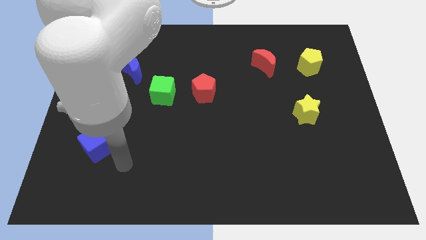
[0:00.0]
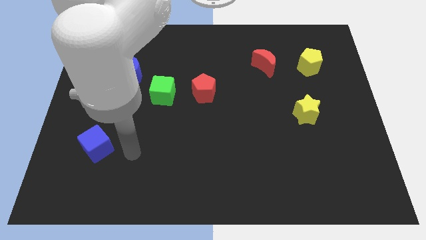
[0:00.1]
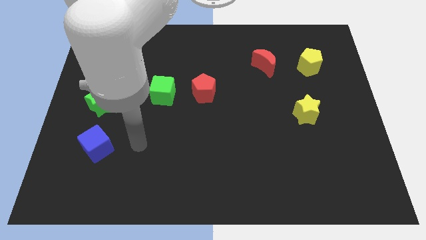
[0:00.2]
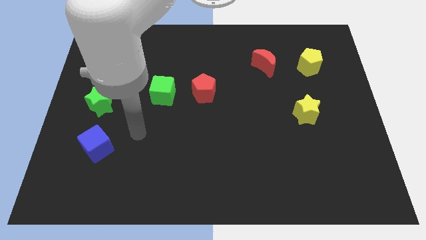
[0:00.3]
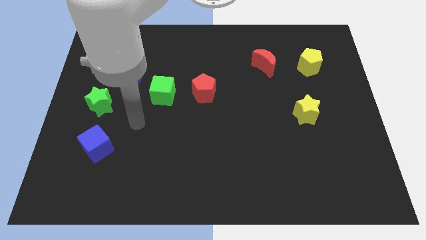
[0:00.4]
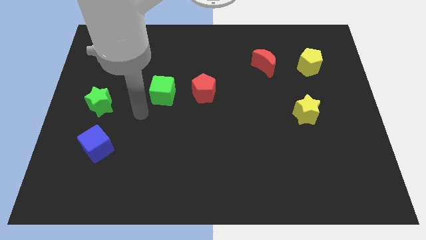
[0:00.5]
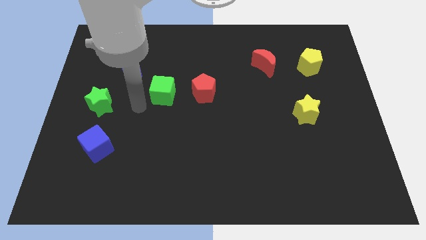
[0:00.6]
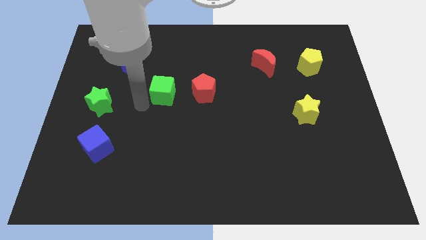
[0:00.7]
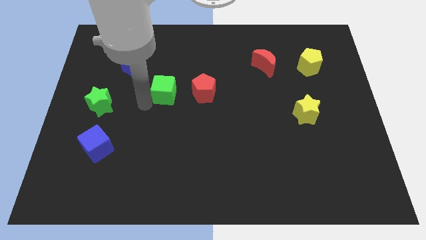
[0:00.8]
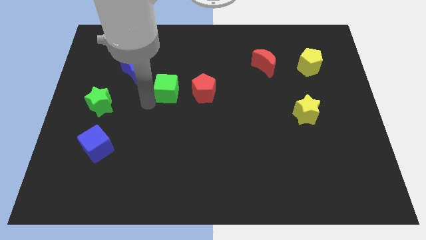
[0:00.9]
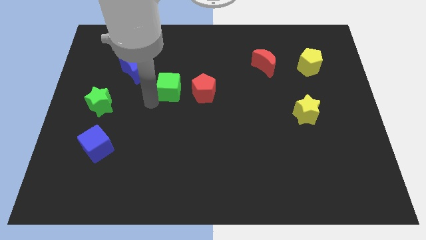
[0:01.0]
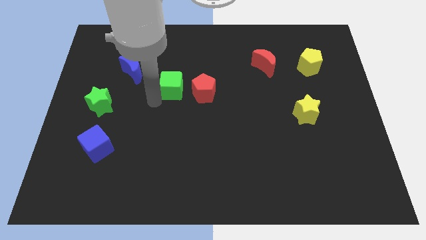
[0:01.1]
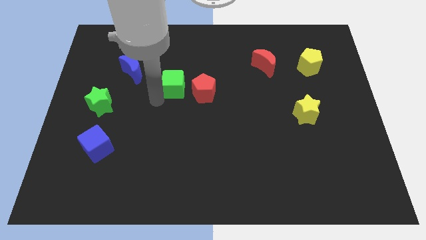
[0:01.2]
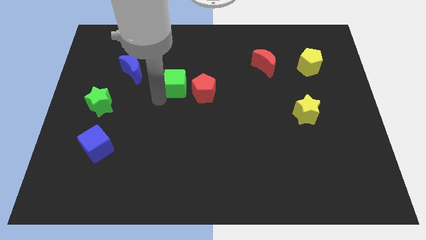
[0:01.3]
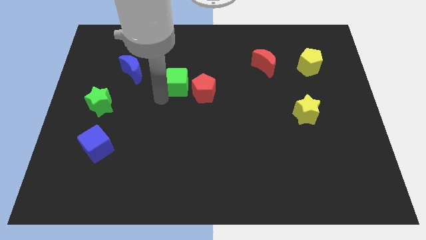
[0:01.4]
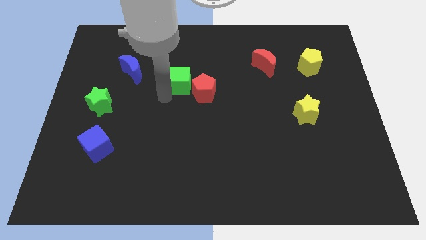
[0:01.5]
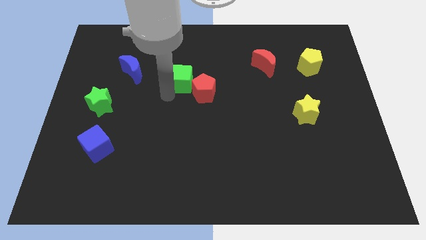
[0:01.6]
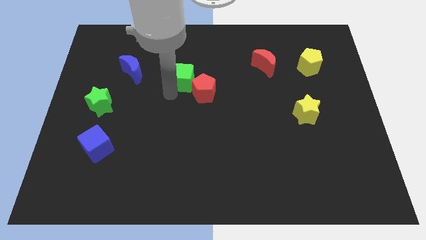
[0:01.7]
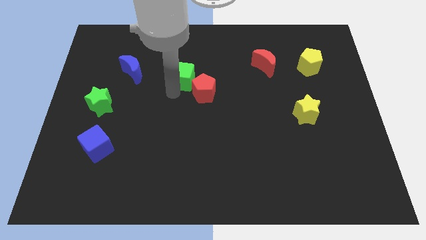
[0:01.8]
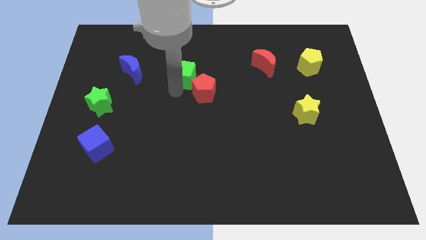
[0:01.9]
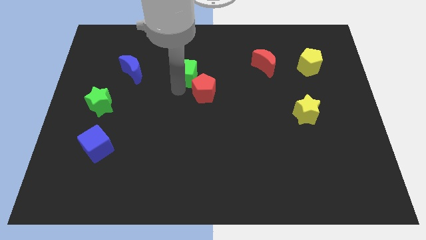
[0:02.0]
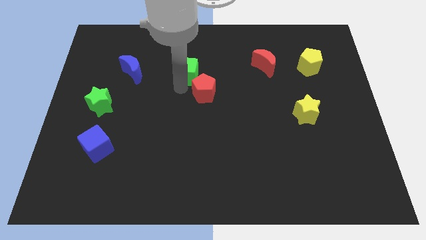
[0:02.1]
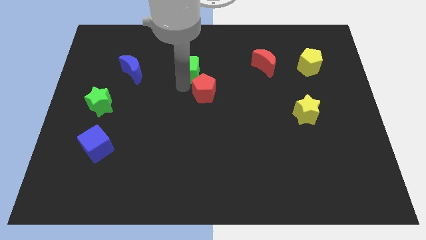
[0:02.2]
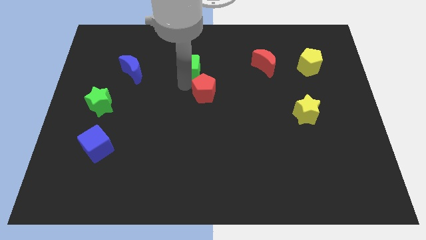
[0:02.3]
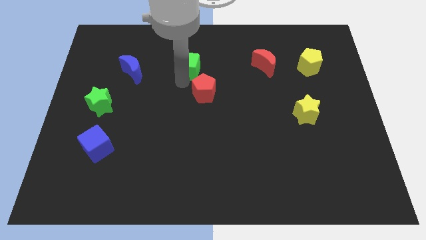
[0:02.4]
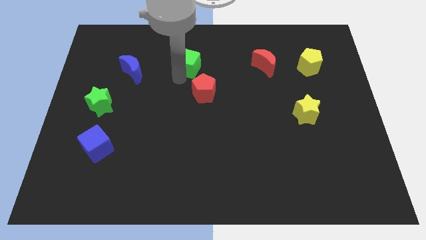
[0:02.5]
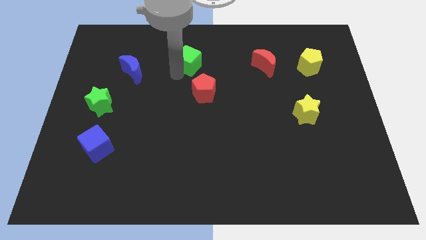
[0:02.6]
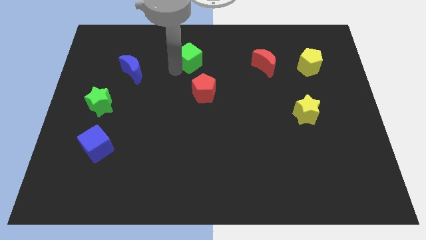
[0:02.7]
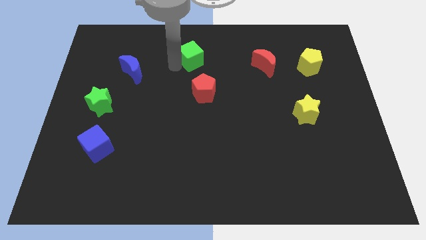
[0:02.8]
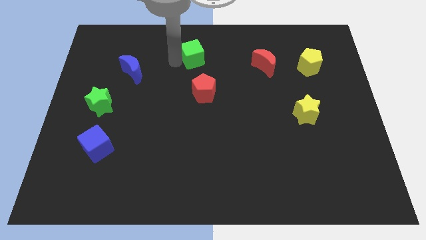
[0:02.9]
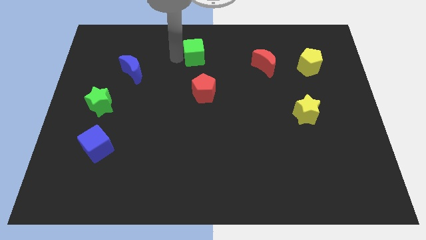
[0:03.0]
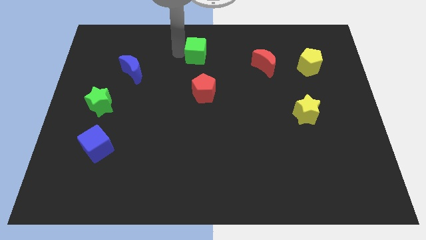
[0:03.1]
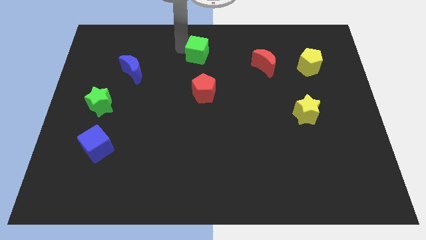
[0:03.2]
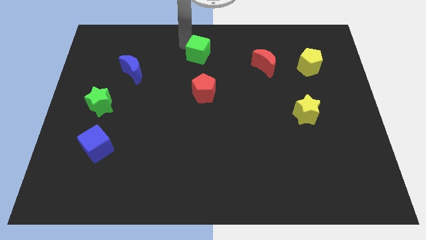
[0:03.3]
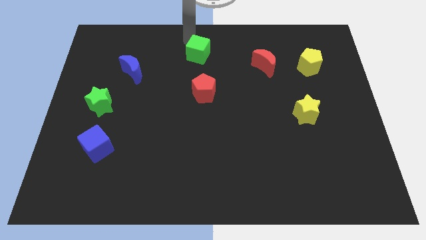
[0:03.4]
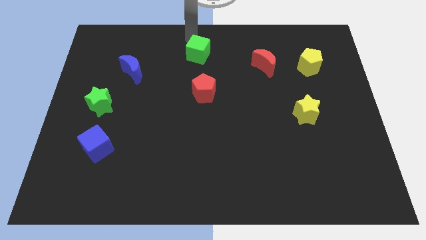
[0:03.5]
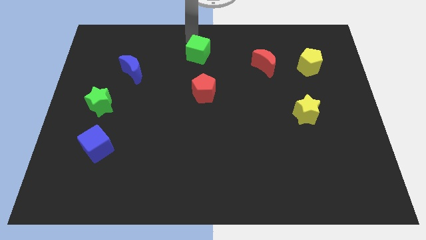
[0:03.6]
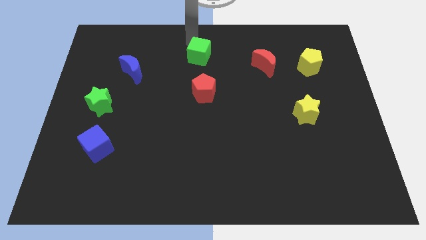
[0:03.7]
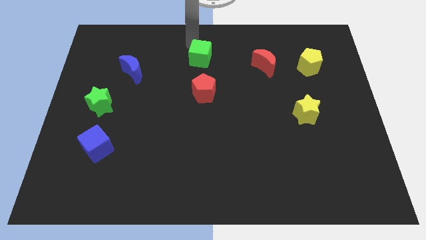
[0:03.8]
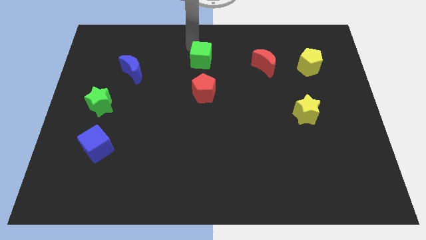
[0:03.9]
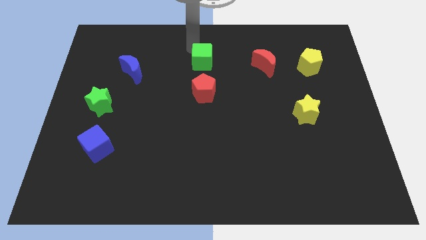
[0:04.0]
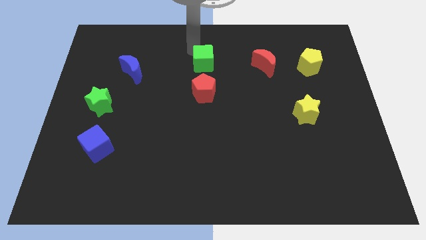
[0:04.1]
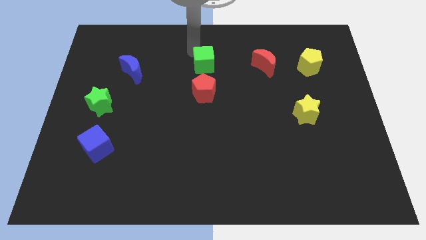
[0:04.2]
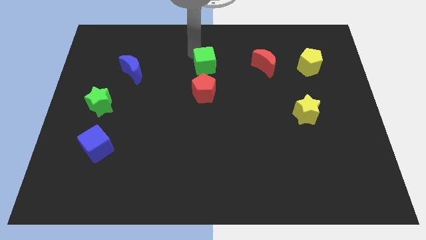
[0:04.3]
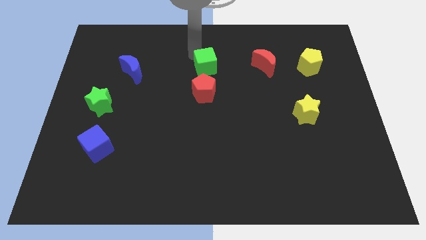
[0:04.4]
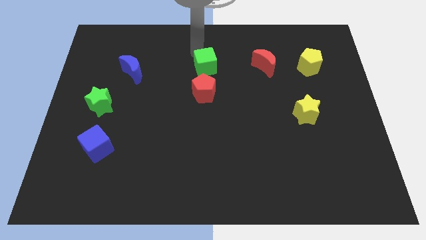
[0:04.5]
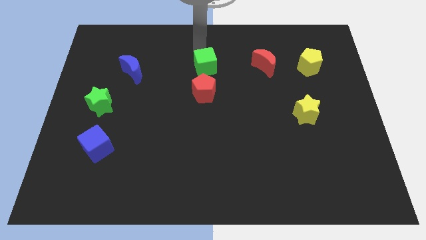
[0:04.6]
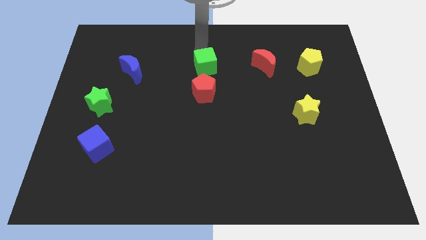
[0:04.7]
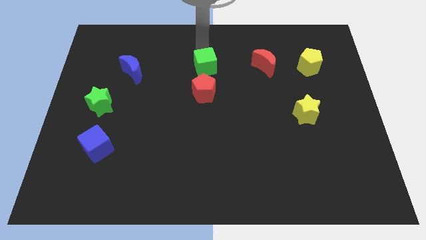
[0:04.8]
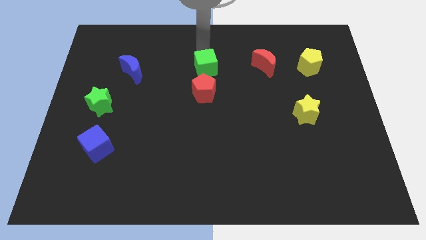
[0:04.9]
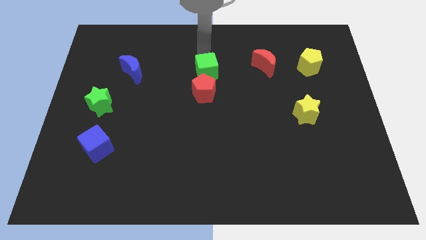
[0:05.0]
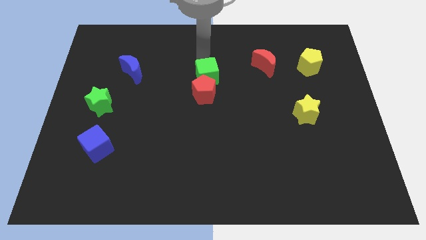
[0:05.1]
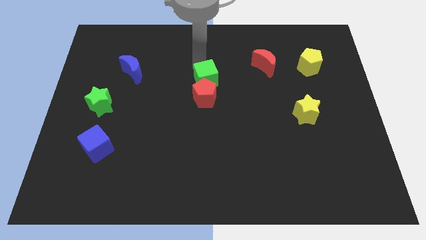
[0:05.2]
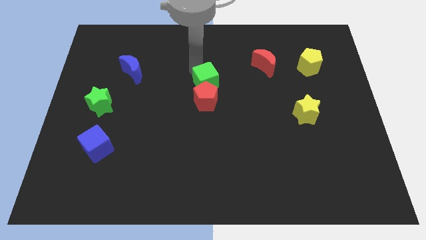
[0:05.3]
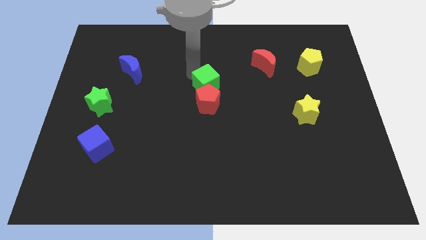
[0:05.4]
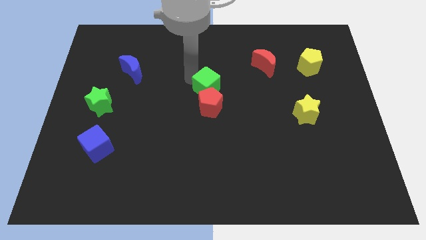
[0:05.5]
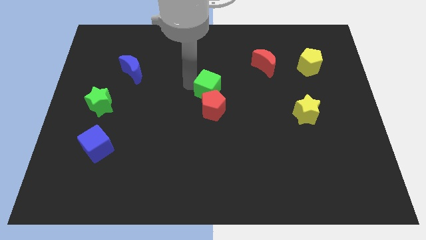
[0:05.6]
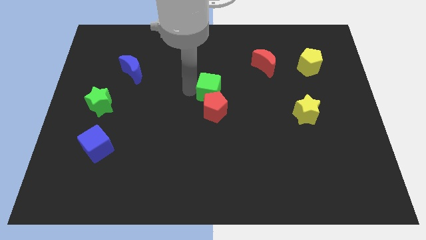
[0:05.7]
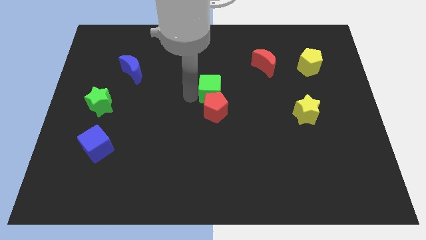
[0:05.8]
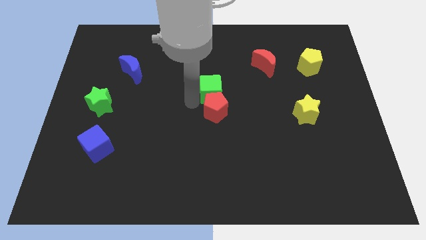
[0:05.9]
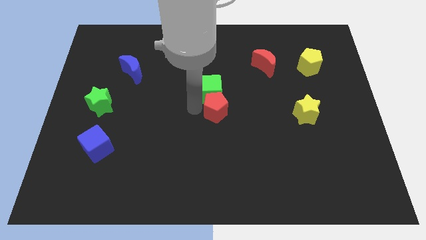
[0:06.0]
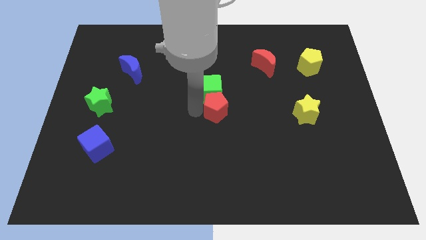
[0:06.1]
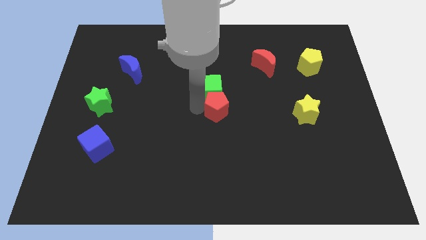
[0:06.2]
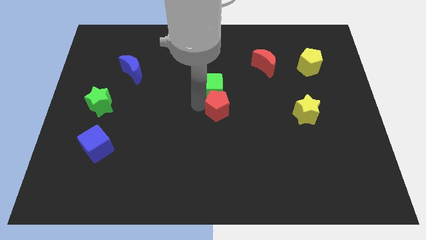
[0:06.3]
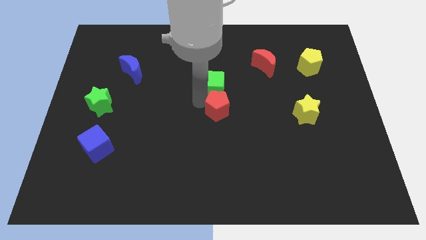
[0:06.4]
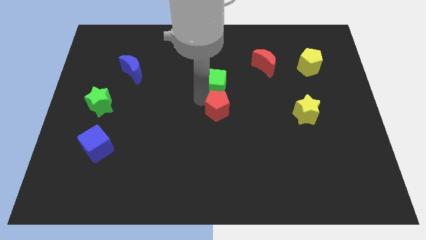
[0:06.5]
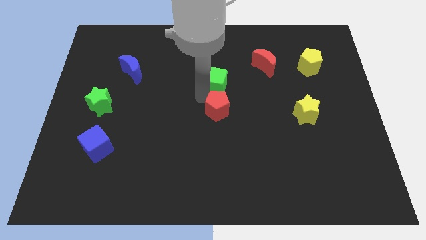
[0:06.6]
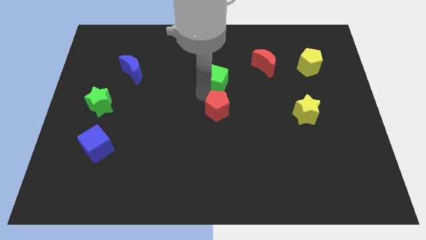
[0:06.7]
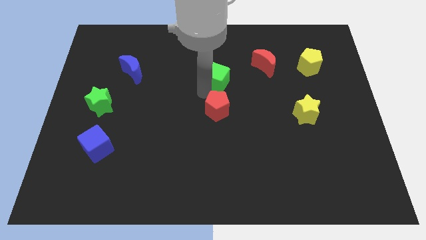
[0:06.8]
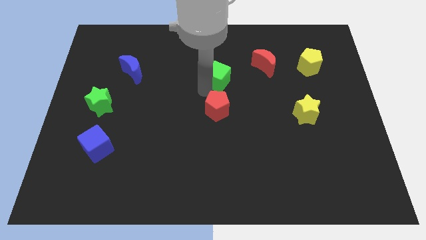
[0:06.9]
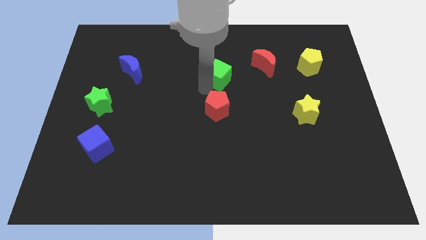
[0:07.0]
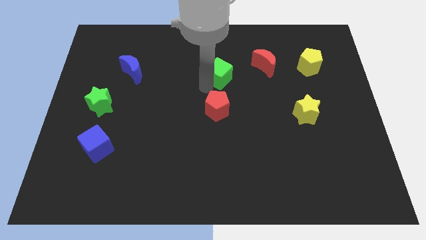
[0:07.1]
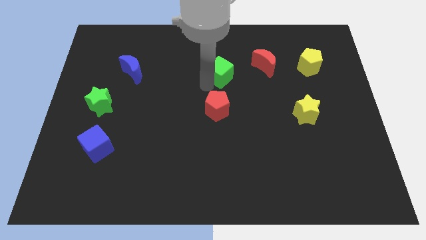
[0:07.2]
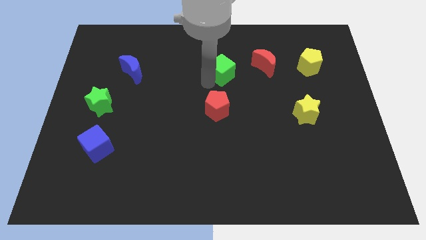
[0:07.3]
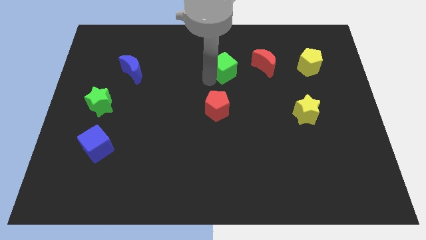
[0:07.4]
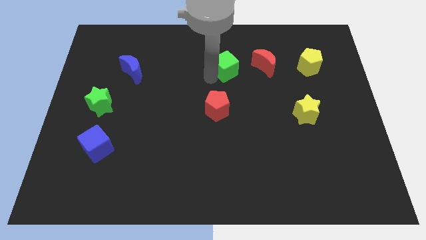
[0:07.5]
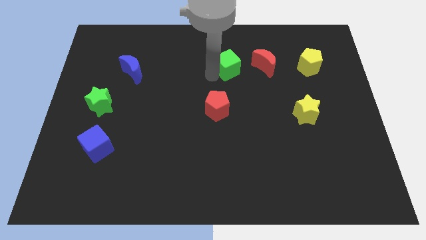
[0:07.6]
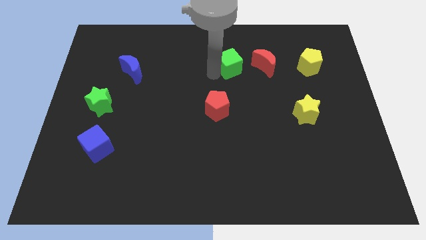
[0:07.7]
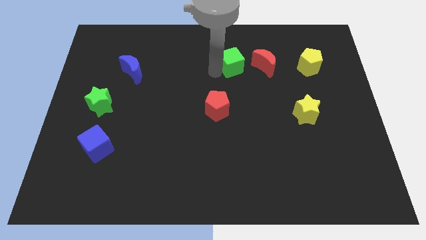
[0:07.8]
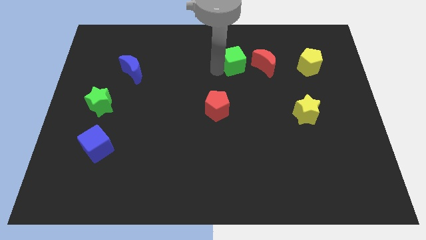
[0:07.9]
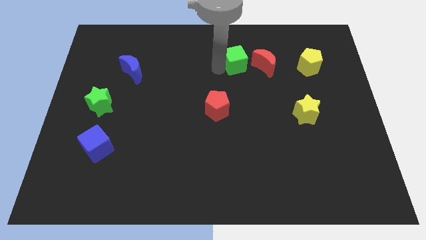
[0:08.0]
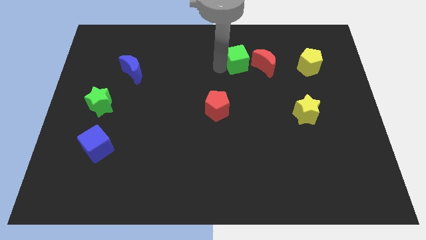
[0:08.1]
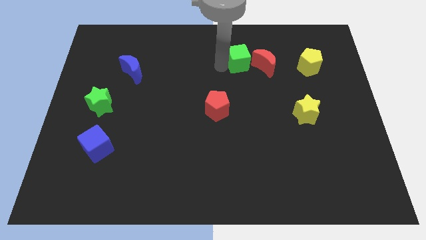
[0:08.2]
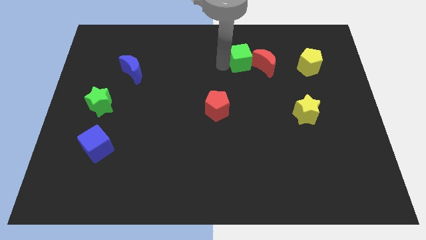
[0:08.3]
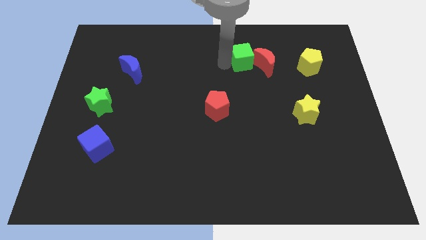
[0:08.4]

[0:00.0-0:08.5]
put the green cube towards the red moon
